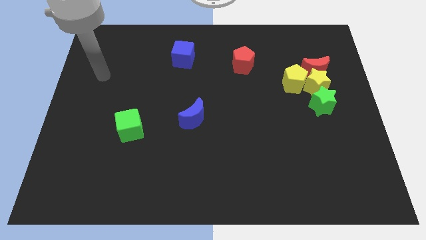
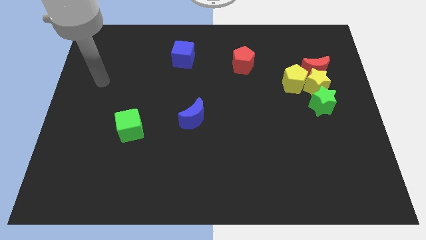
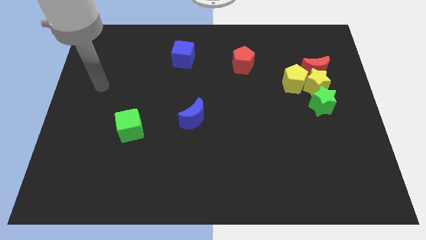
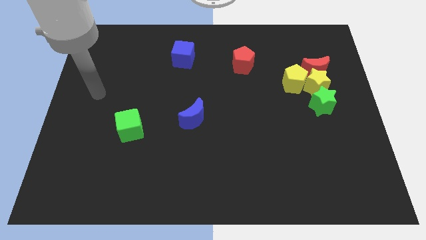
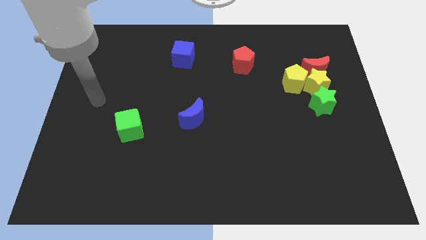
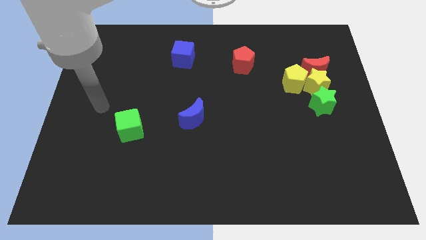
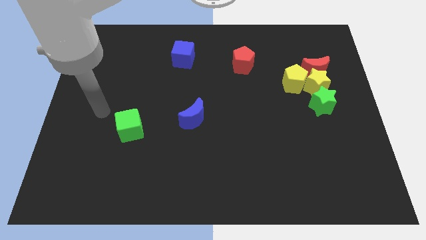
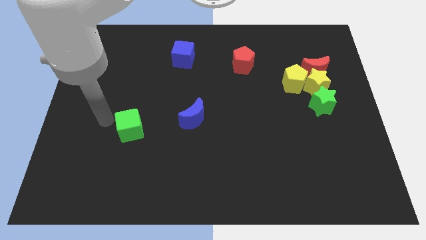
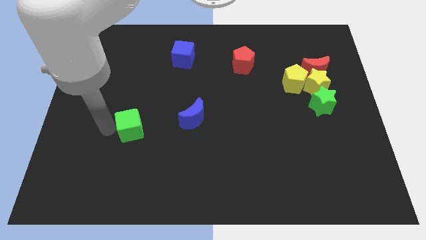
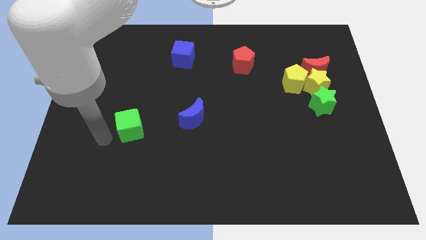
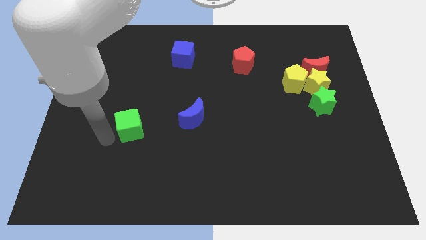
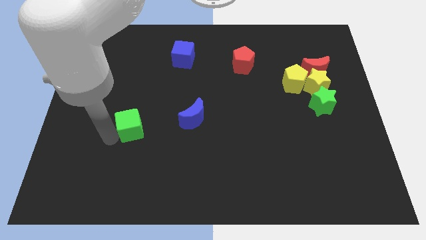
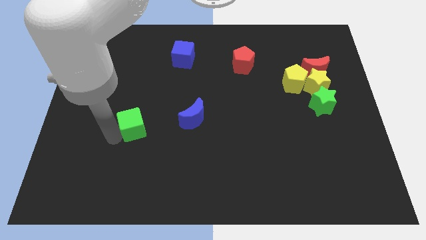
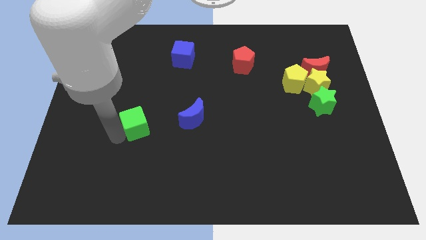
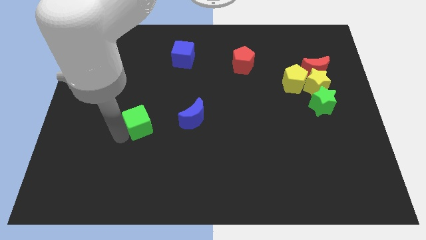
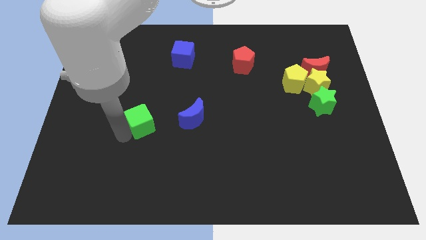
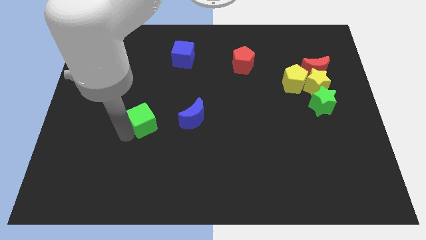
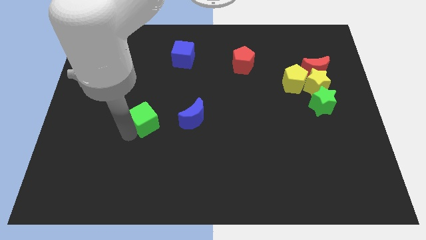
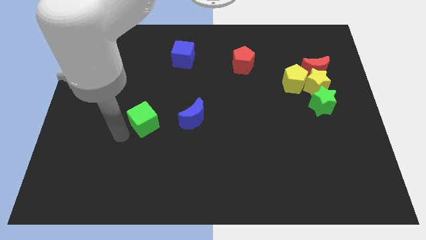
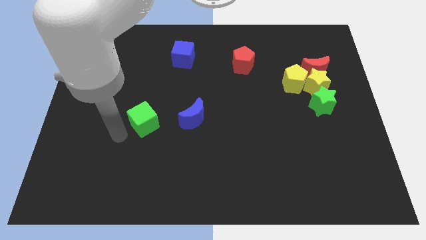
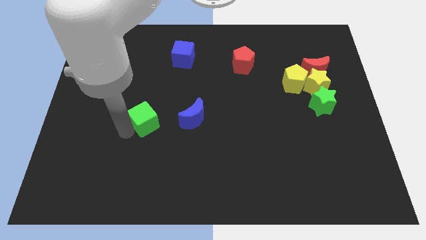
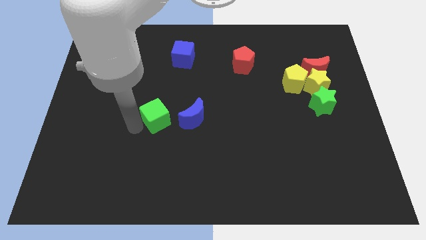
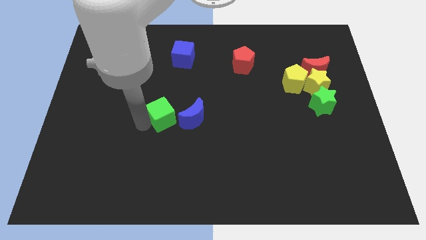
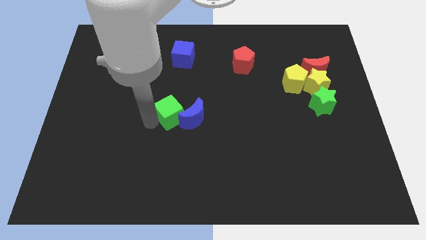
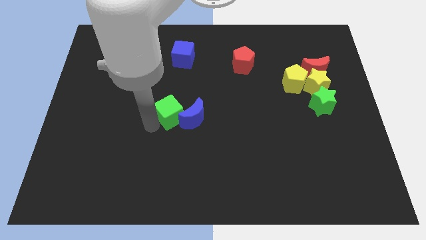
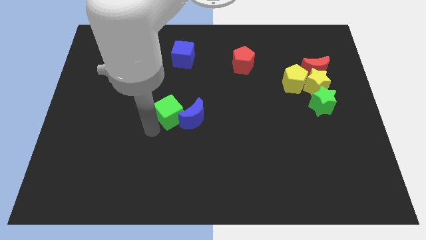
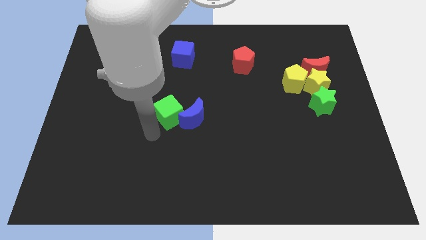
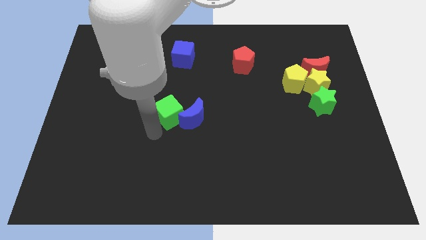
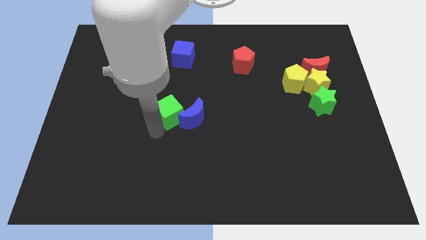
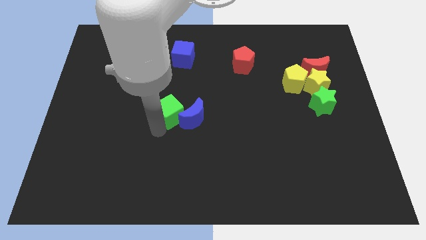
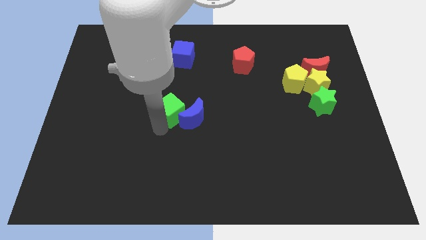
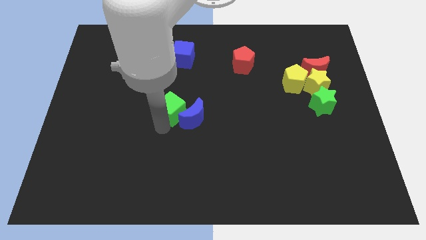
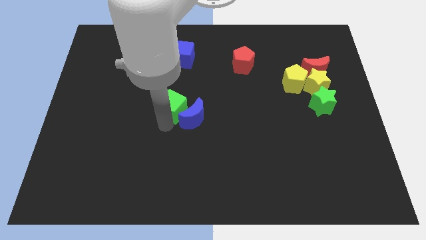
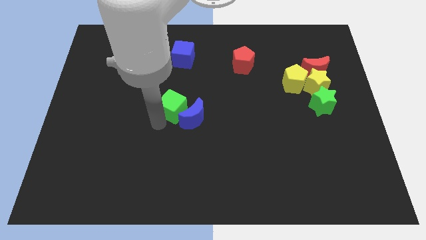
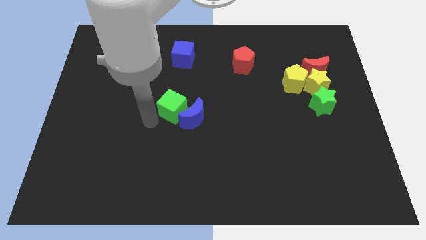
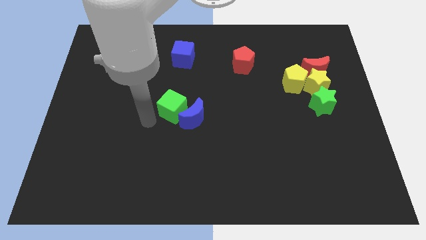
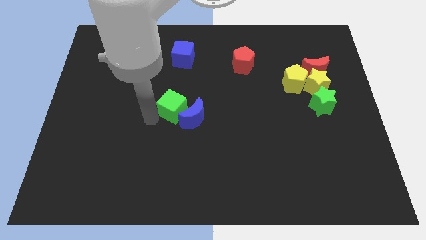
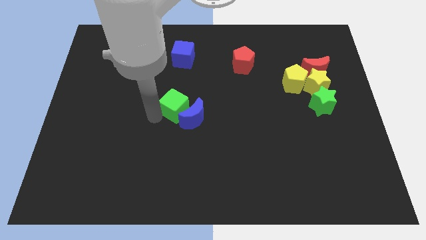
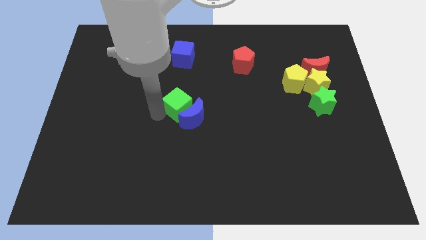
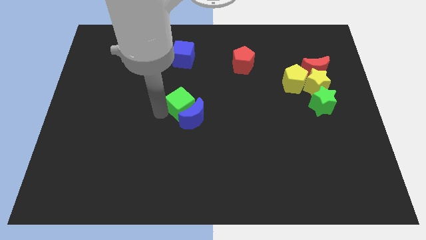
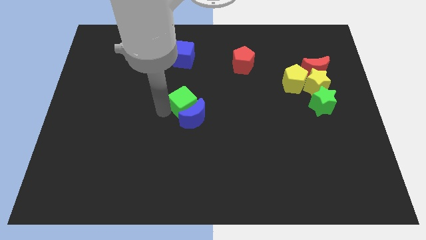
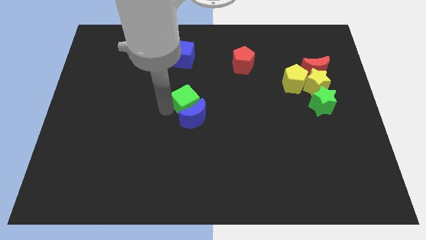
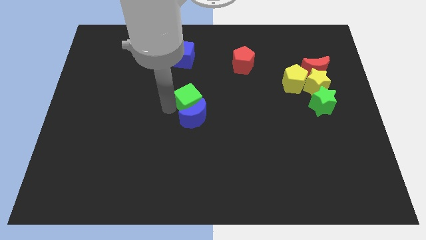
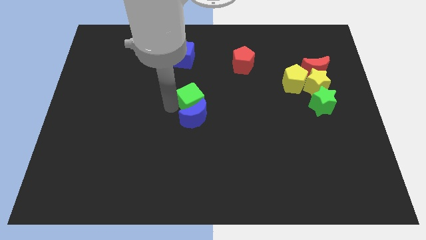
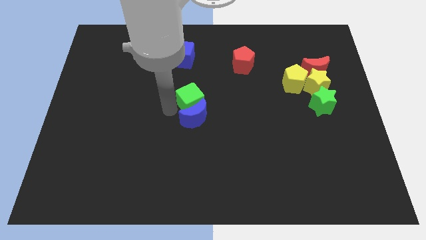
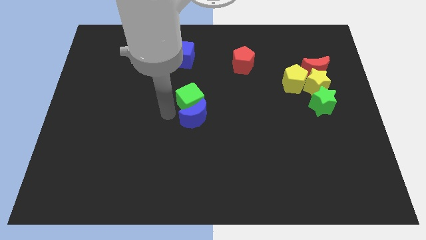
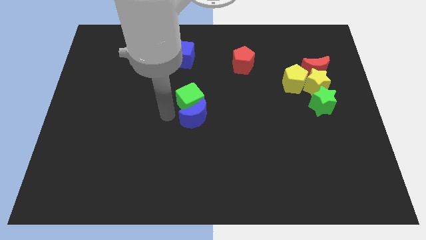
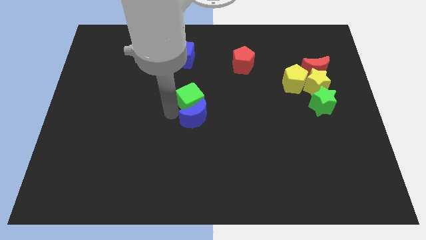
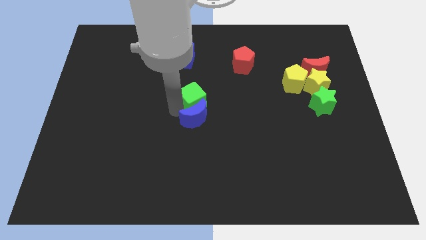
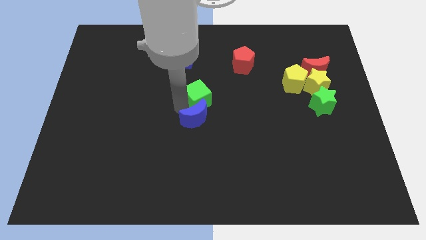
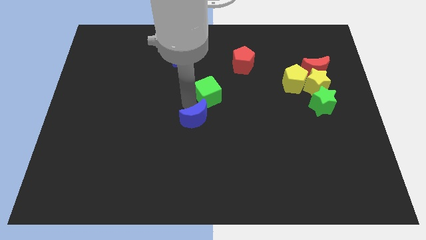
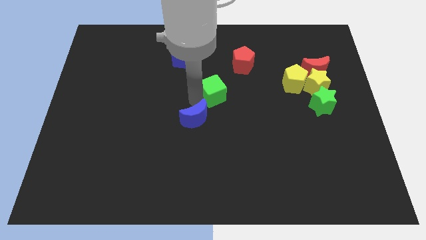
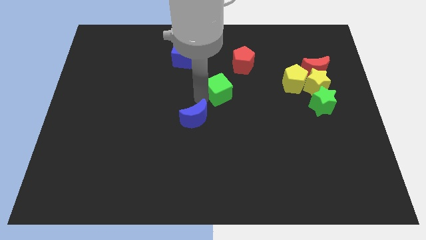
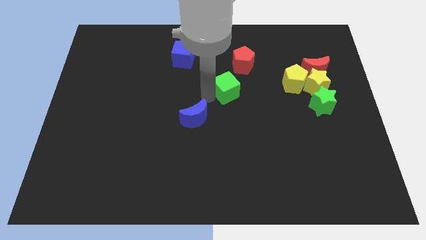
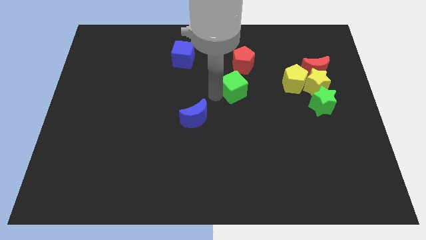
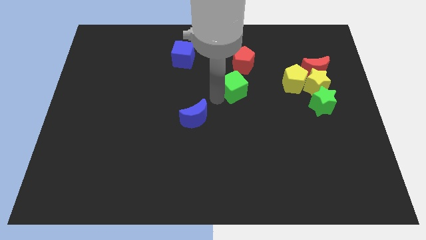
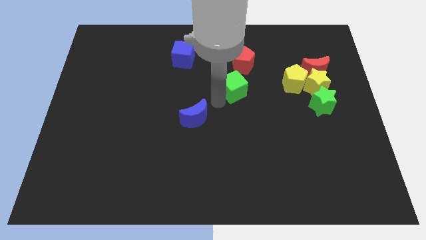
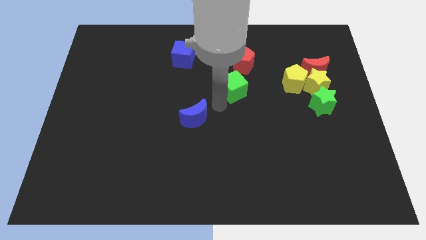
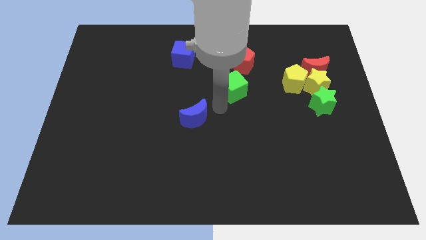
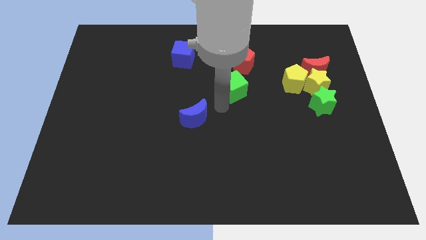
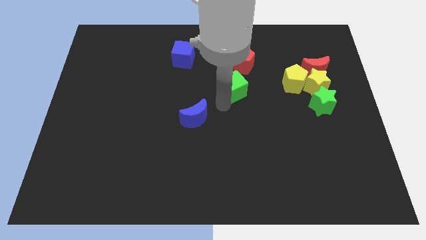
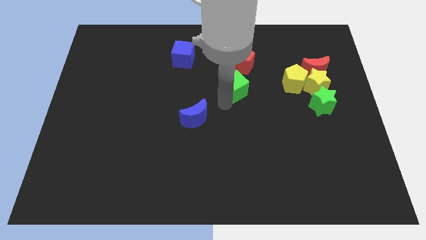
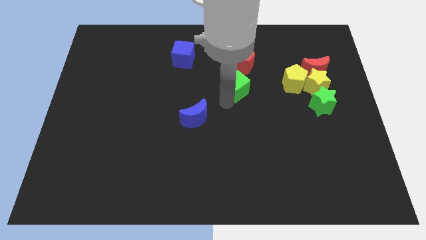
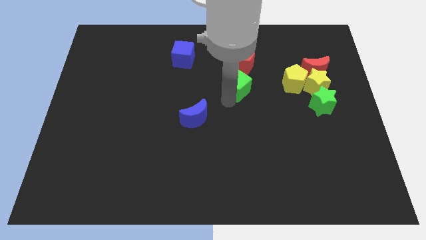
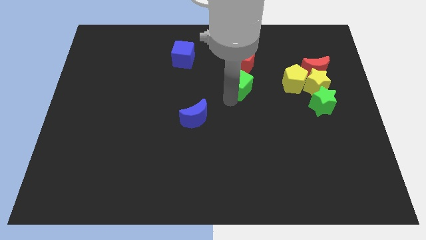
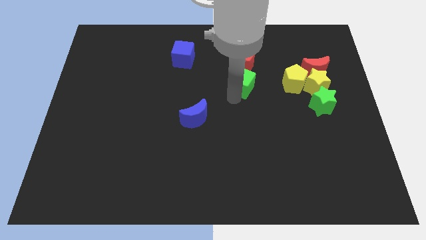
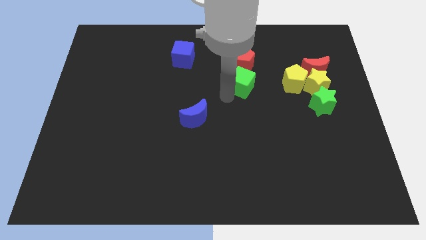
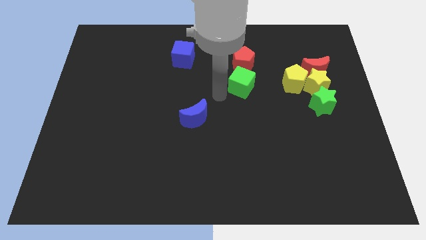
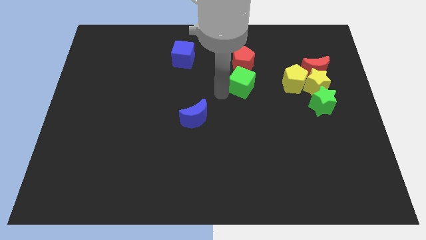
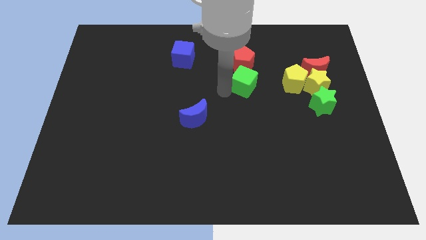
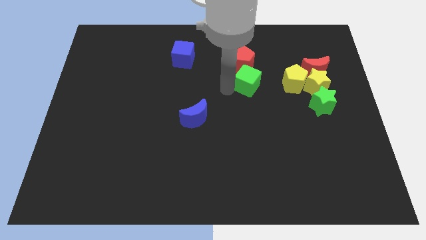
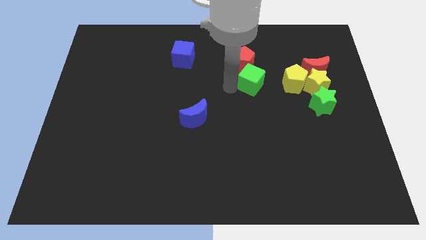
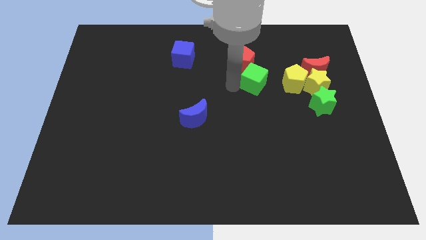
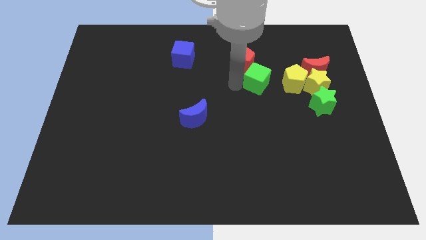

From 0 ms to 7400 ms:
push the green cube left of the red moon

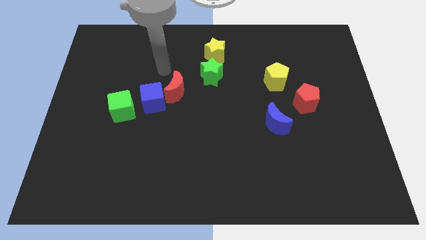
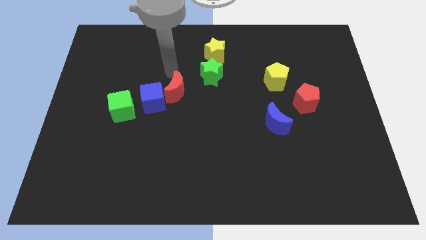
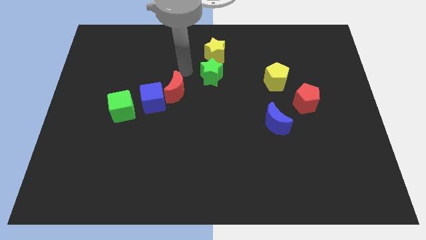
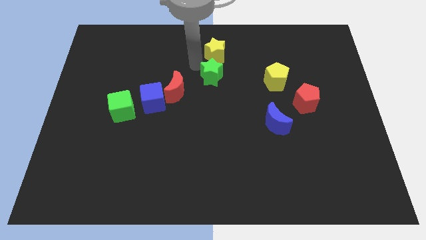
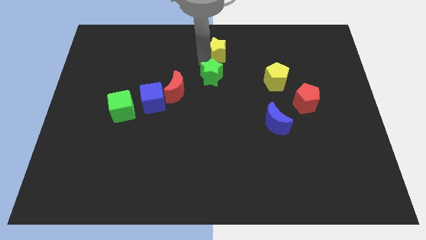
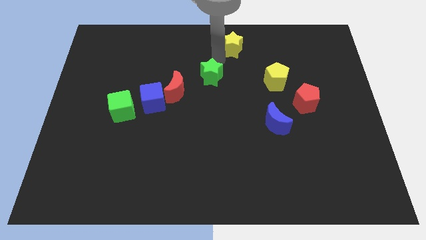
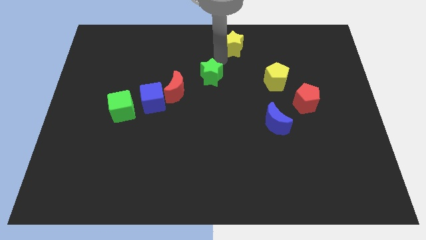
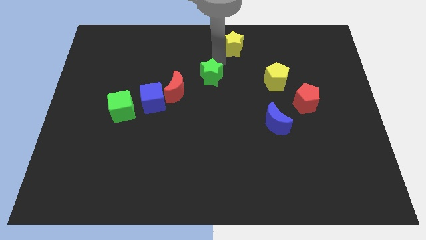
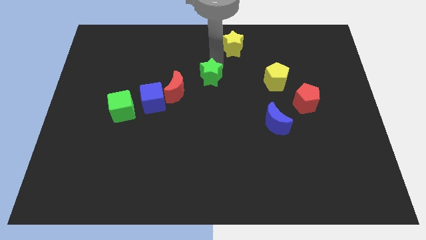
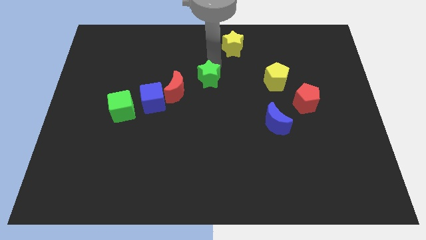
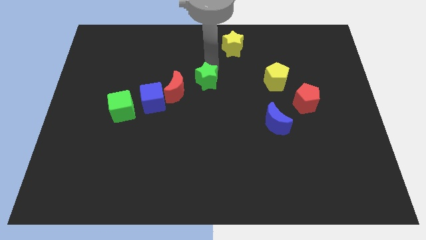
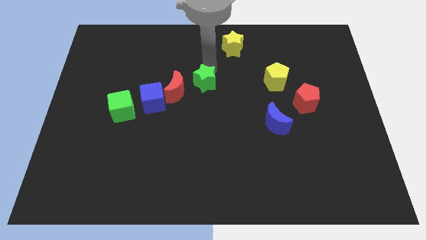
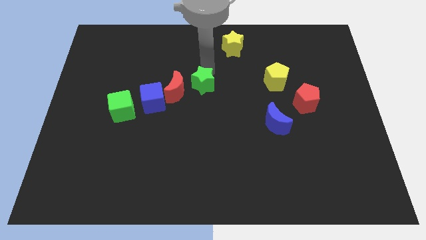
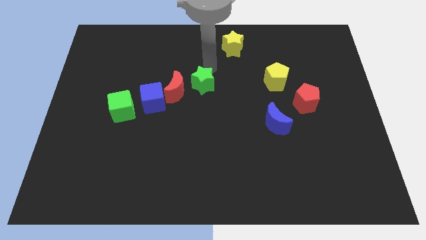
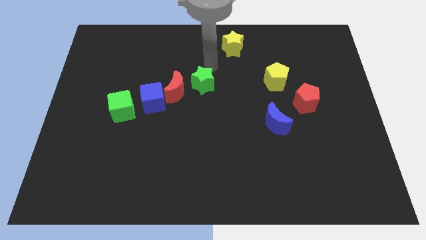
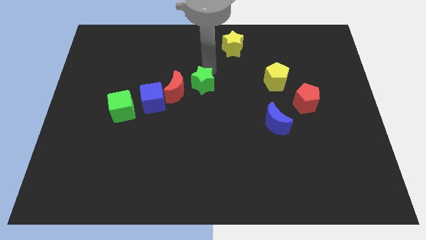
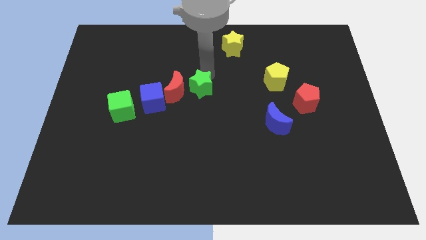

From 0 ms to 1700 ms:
move the green star to the right side of the blue cube
